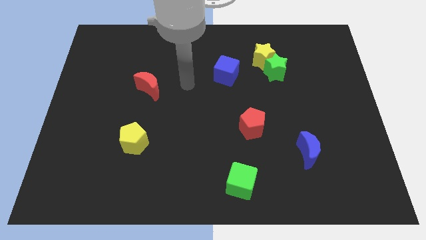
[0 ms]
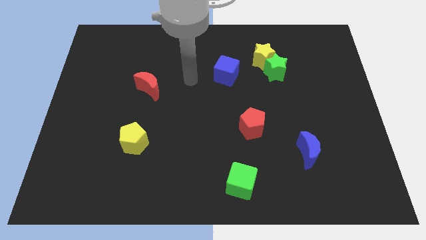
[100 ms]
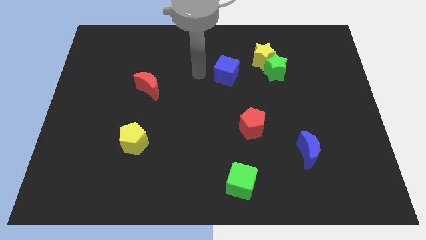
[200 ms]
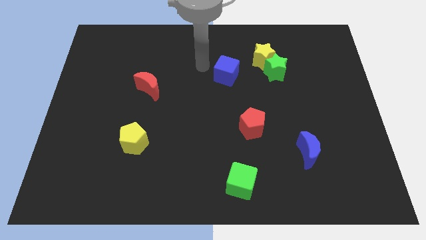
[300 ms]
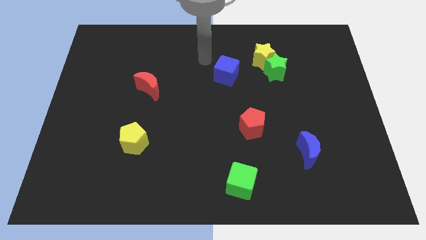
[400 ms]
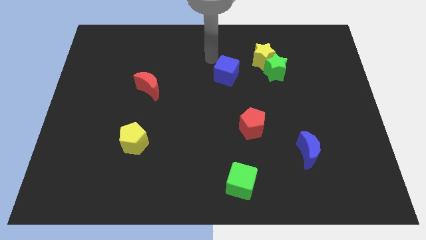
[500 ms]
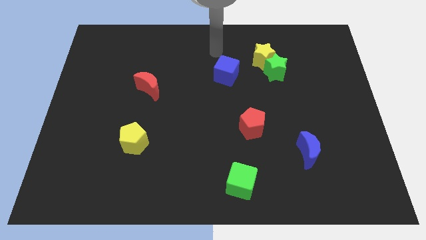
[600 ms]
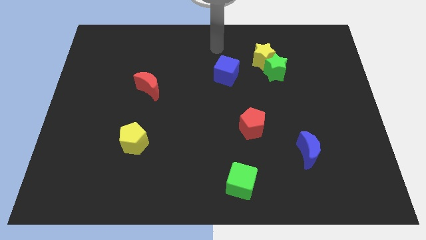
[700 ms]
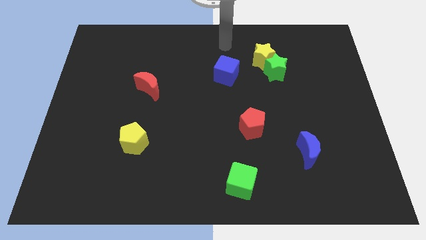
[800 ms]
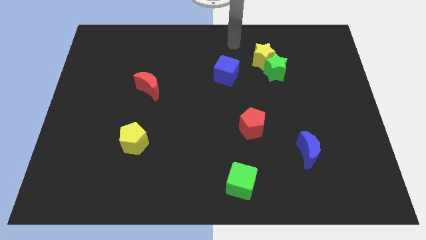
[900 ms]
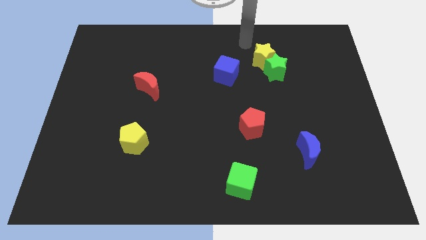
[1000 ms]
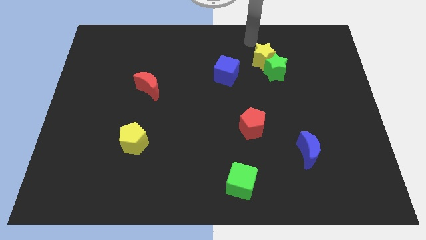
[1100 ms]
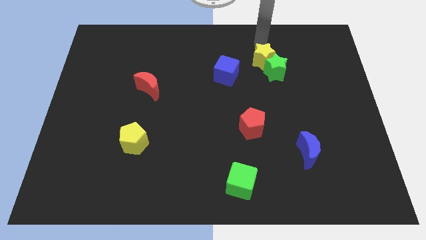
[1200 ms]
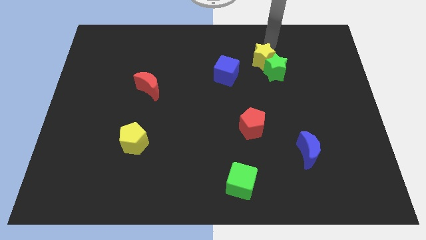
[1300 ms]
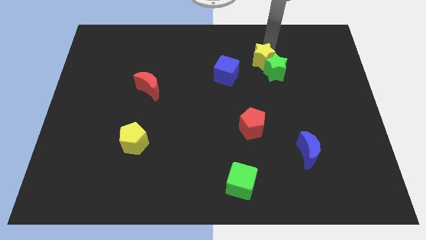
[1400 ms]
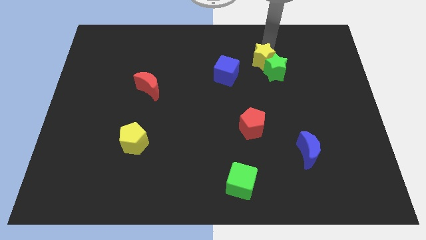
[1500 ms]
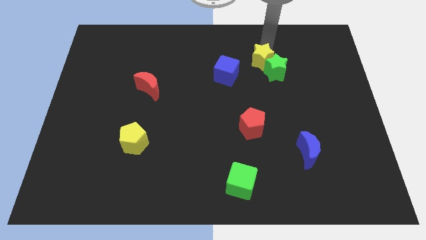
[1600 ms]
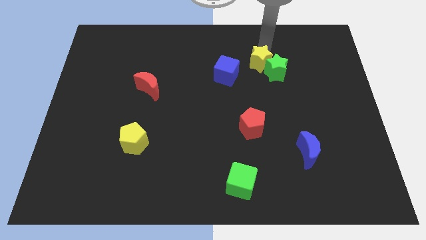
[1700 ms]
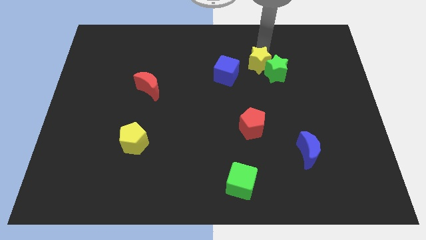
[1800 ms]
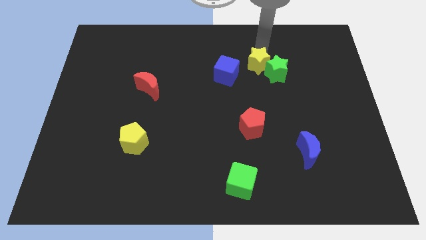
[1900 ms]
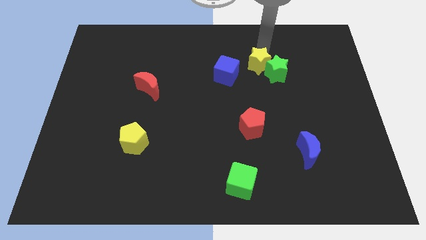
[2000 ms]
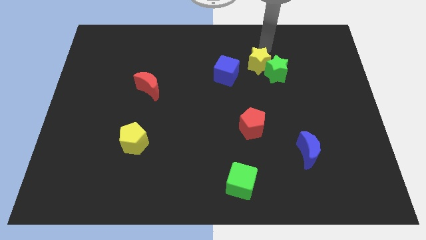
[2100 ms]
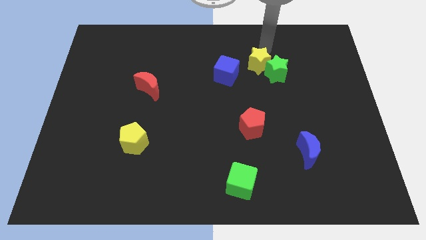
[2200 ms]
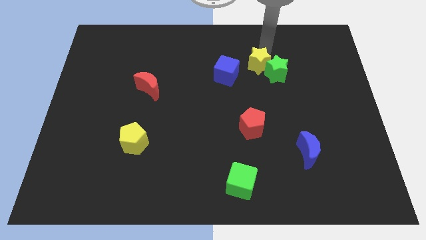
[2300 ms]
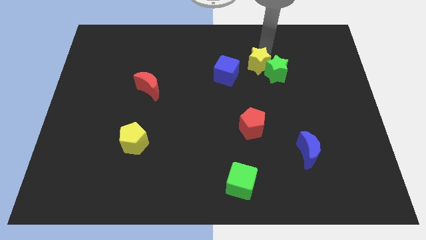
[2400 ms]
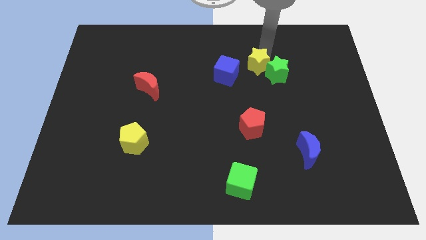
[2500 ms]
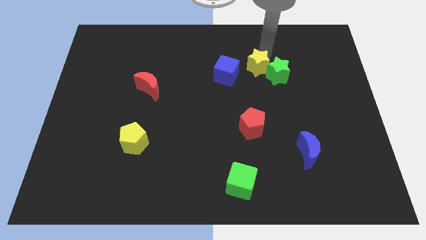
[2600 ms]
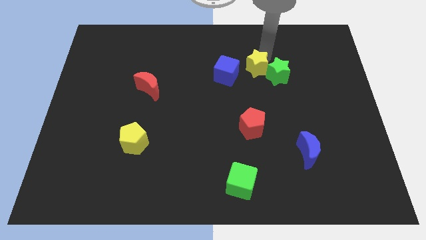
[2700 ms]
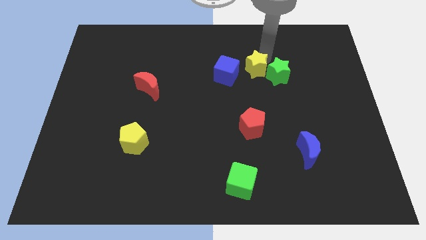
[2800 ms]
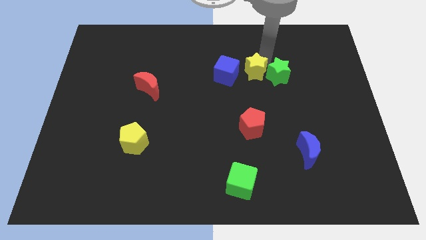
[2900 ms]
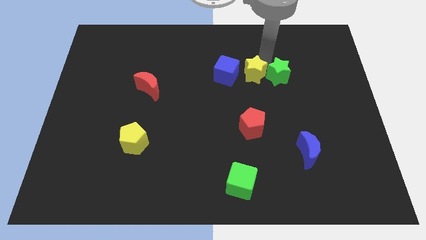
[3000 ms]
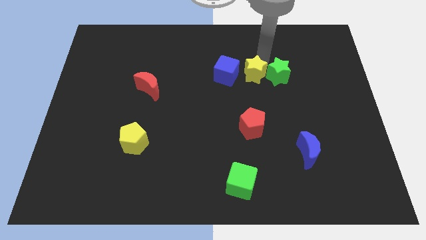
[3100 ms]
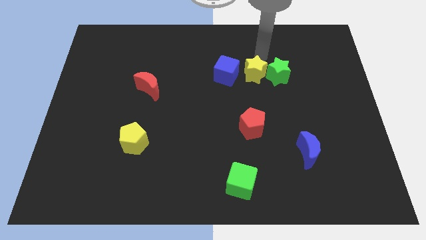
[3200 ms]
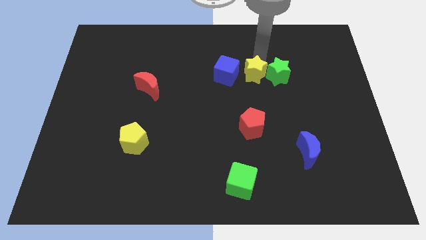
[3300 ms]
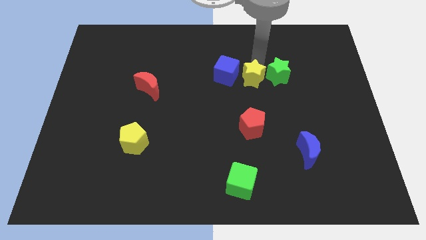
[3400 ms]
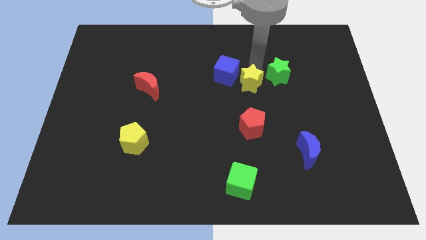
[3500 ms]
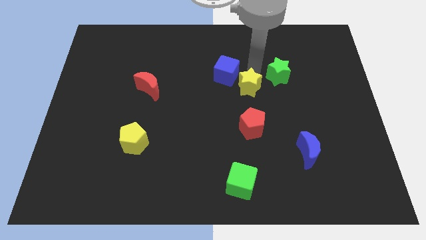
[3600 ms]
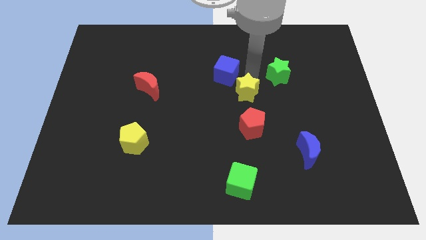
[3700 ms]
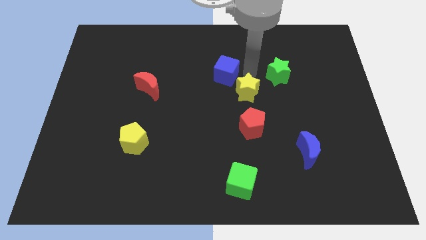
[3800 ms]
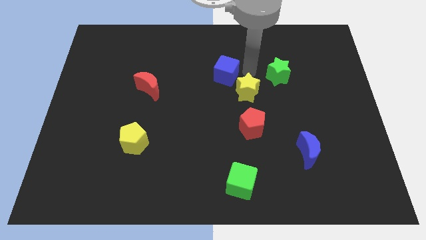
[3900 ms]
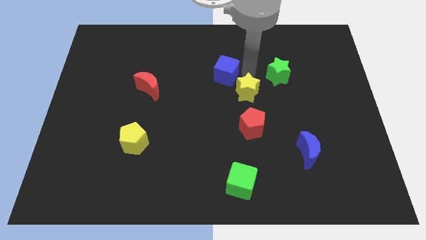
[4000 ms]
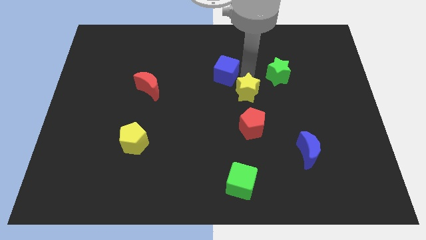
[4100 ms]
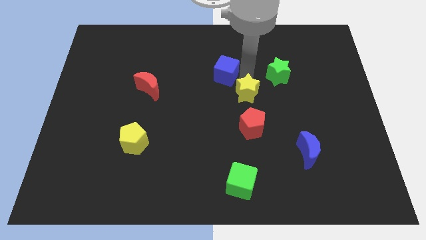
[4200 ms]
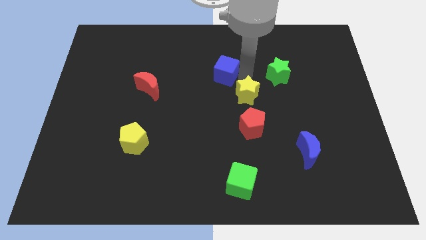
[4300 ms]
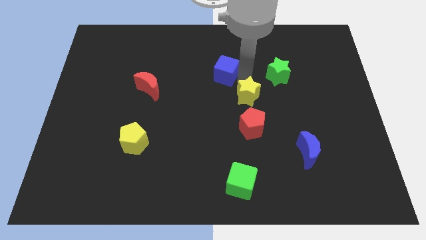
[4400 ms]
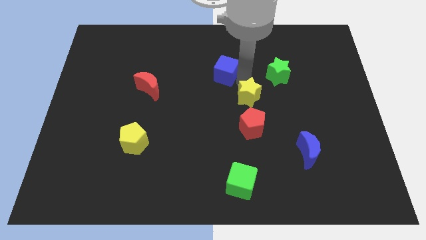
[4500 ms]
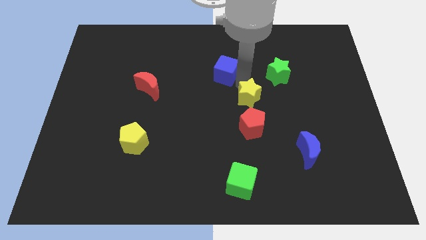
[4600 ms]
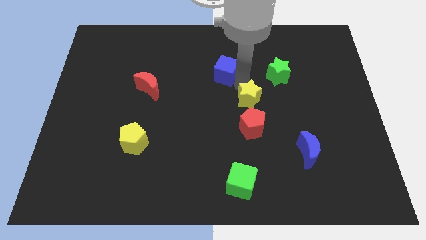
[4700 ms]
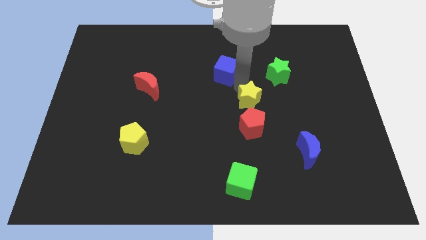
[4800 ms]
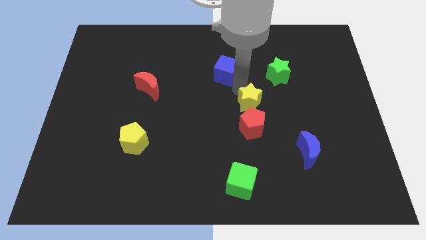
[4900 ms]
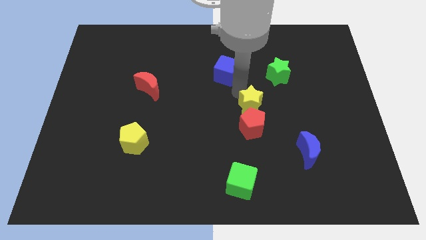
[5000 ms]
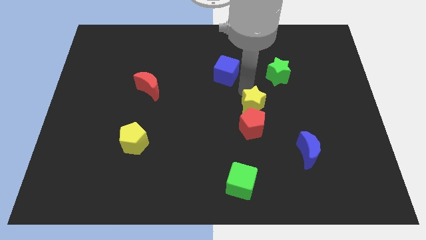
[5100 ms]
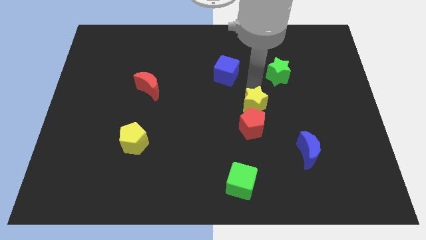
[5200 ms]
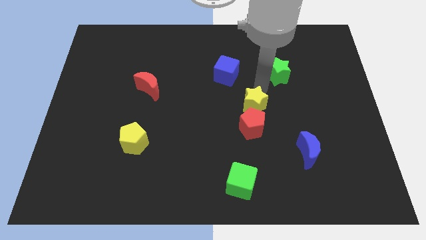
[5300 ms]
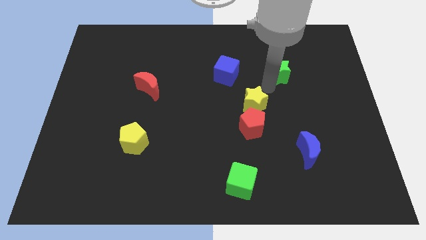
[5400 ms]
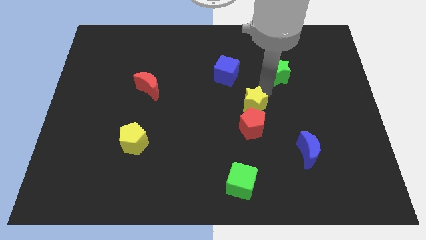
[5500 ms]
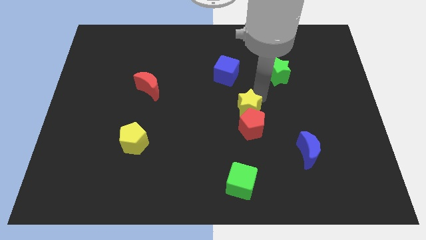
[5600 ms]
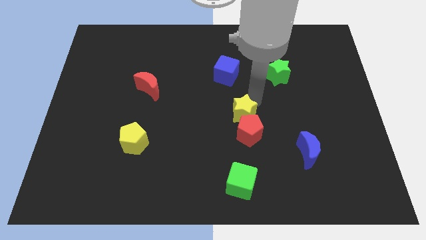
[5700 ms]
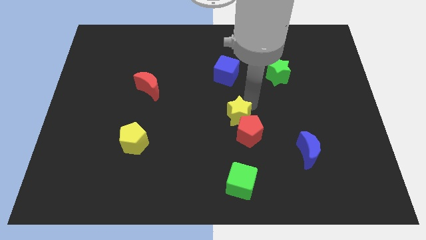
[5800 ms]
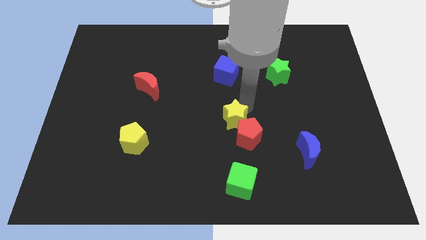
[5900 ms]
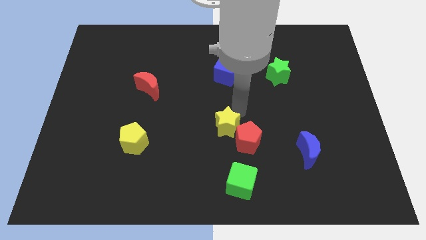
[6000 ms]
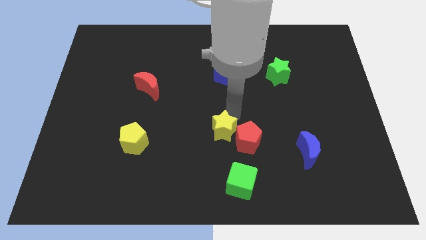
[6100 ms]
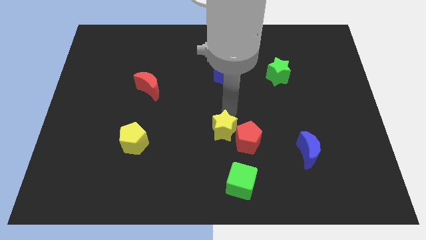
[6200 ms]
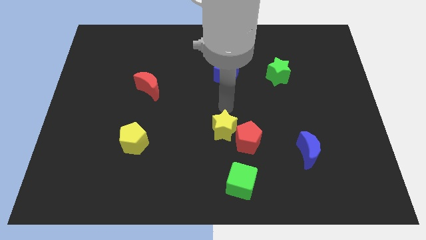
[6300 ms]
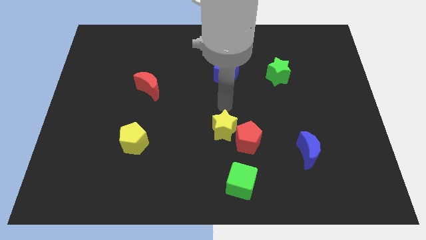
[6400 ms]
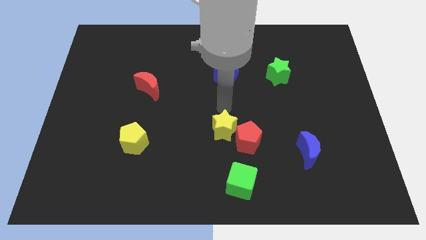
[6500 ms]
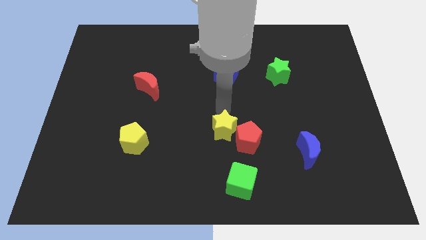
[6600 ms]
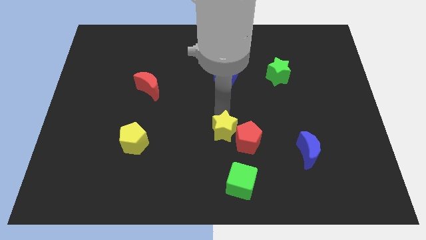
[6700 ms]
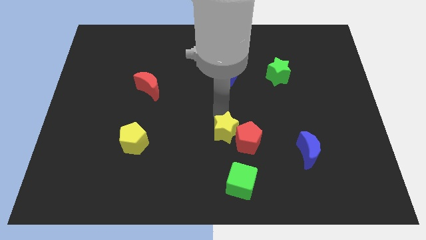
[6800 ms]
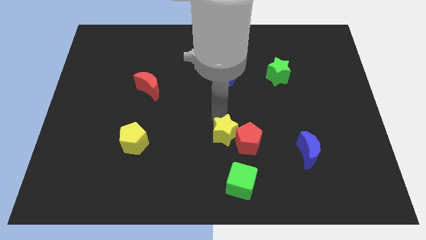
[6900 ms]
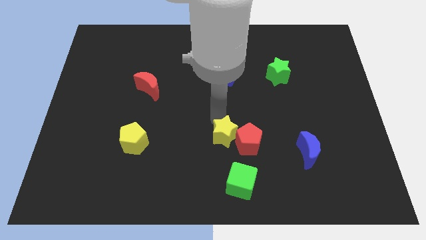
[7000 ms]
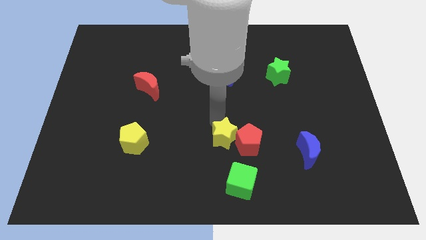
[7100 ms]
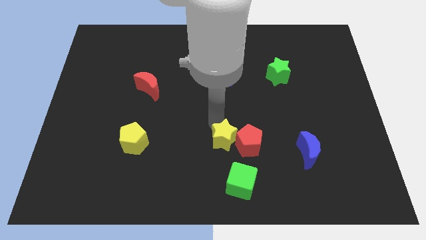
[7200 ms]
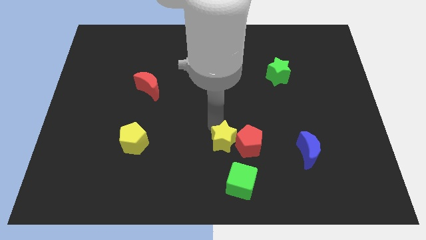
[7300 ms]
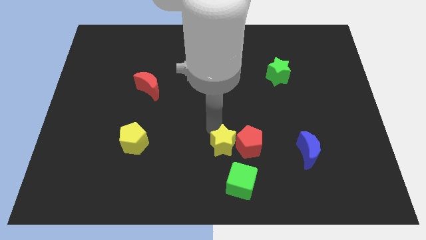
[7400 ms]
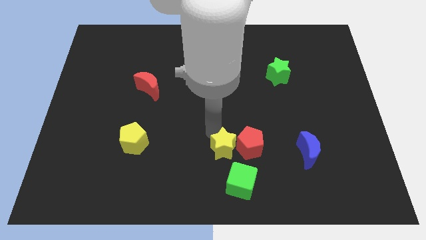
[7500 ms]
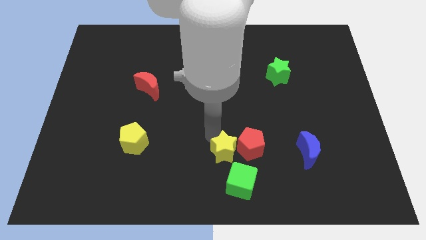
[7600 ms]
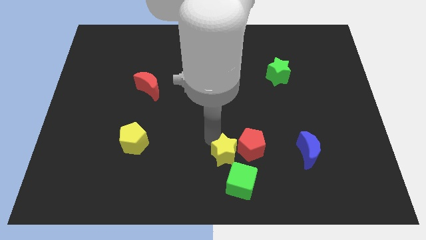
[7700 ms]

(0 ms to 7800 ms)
put the yellow star to the bottom
